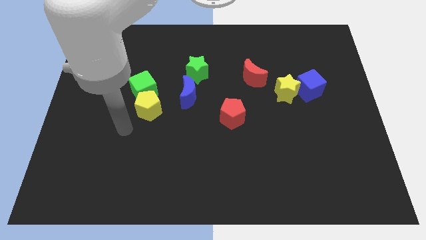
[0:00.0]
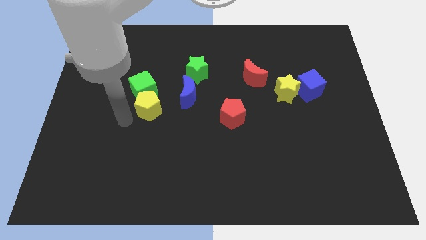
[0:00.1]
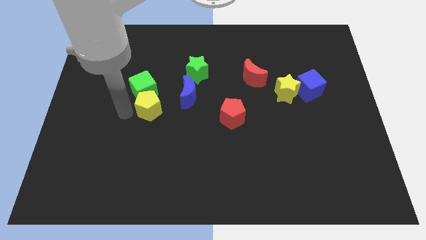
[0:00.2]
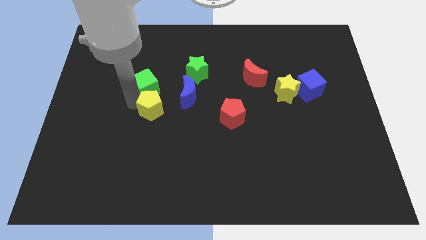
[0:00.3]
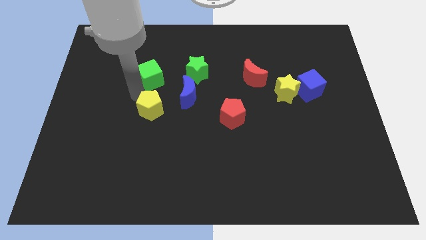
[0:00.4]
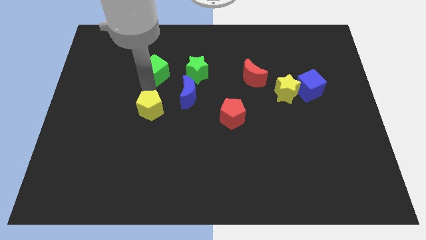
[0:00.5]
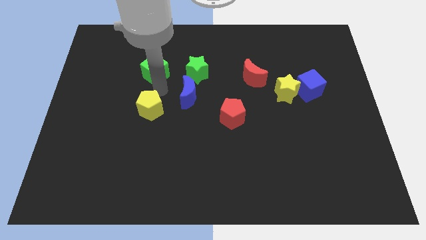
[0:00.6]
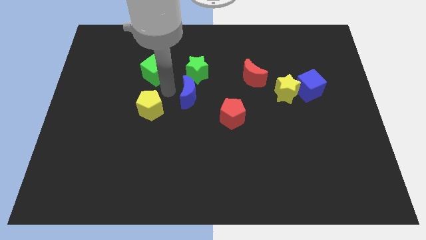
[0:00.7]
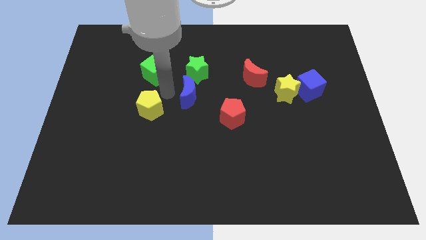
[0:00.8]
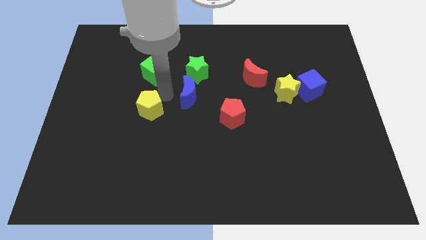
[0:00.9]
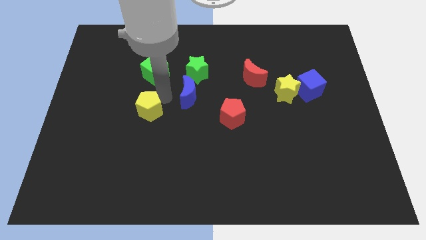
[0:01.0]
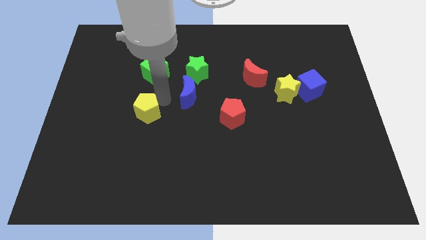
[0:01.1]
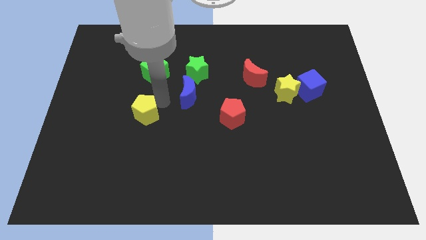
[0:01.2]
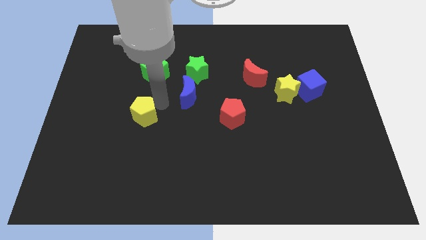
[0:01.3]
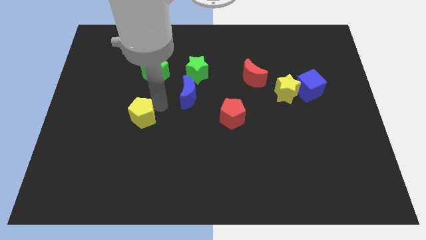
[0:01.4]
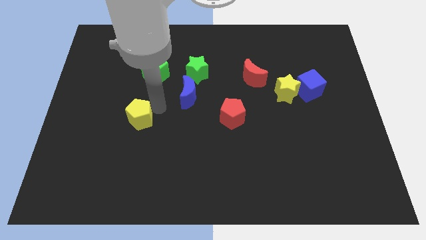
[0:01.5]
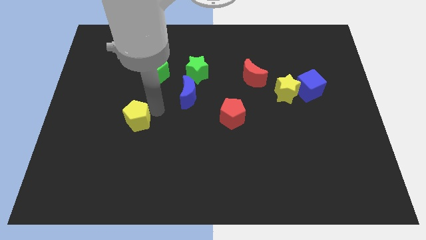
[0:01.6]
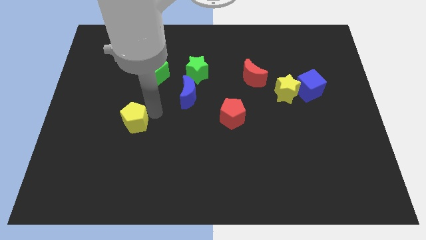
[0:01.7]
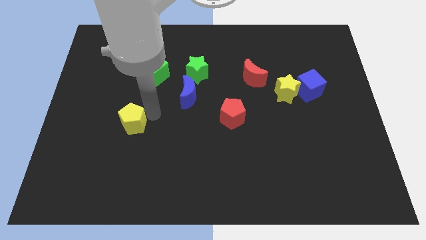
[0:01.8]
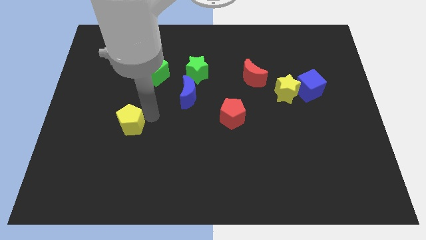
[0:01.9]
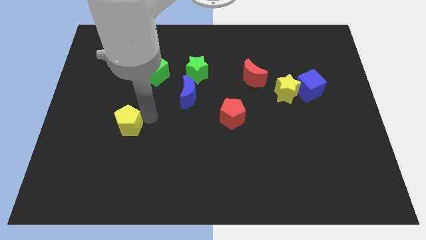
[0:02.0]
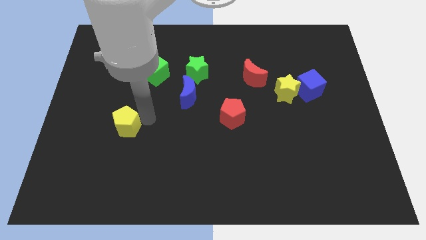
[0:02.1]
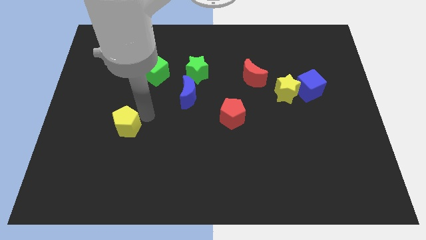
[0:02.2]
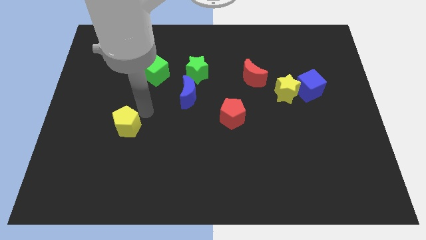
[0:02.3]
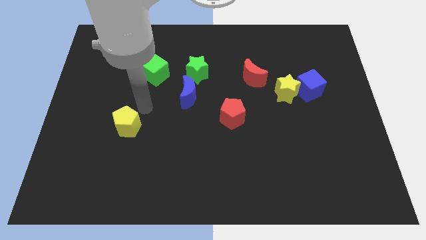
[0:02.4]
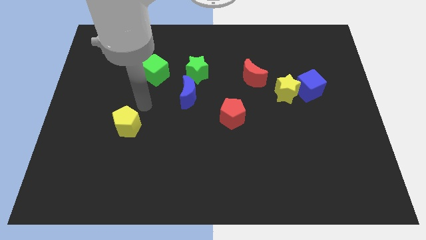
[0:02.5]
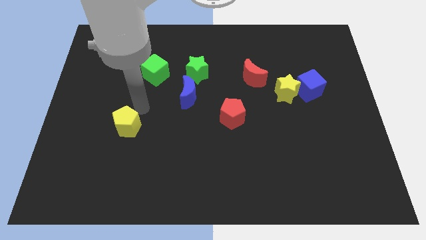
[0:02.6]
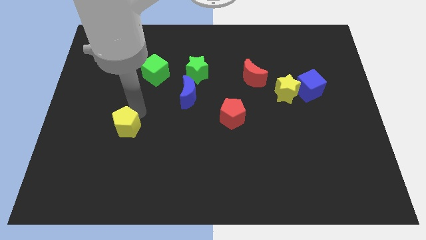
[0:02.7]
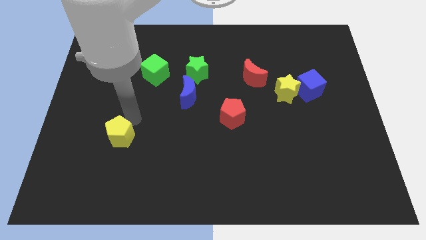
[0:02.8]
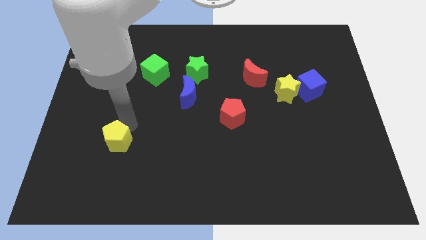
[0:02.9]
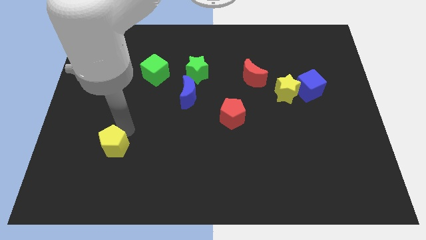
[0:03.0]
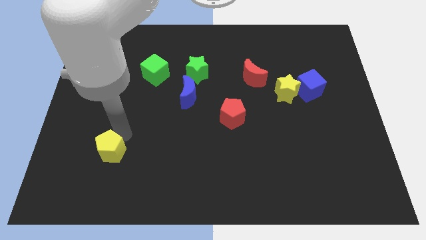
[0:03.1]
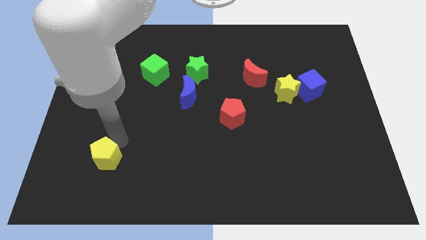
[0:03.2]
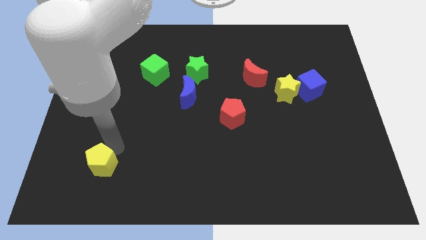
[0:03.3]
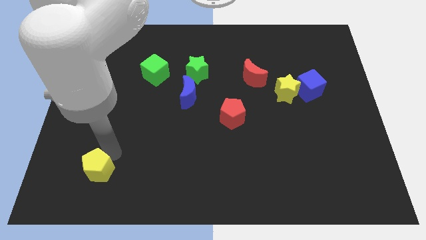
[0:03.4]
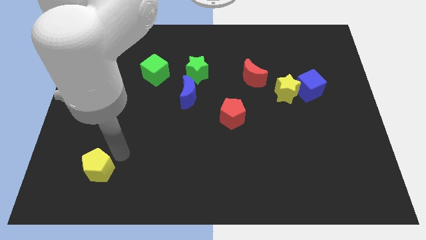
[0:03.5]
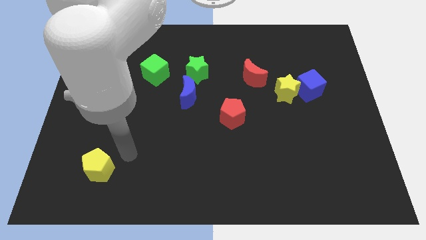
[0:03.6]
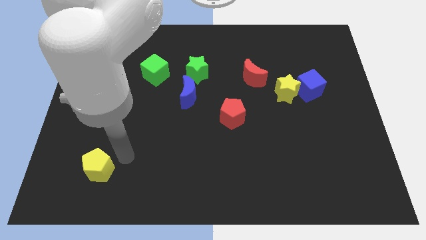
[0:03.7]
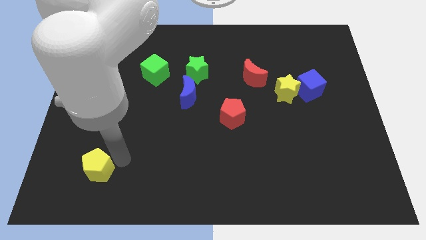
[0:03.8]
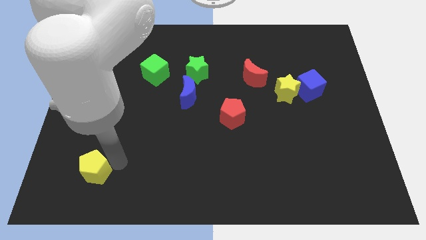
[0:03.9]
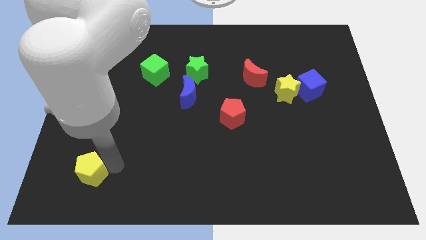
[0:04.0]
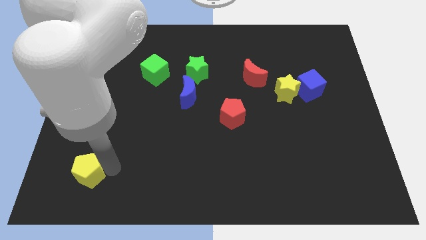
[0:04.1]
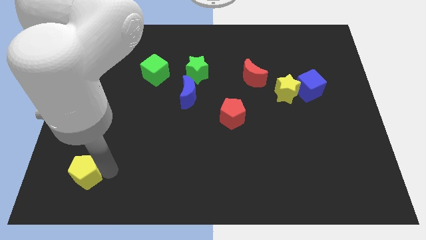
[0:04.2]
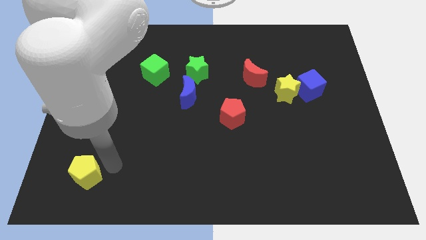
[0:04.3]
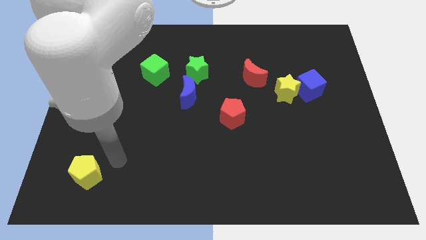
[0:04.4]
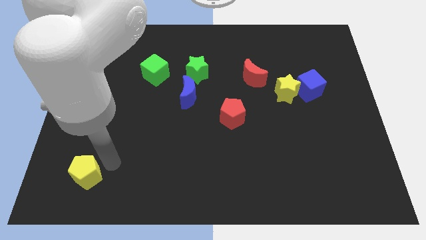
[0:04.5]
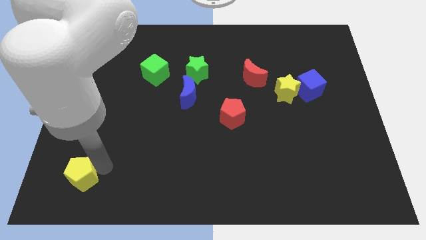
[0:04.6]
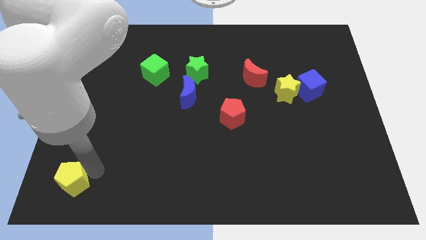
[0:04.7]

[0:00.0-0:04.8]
push the yellow pentagon to the lower left corner

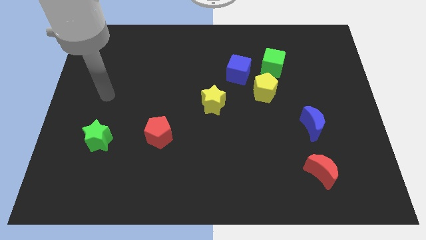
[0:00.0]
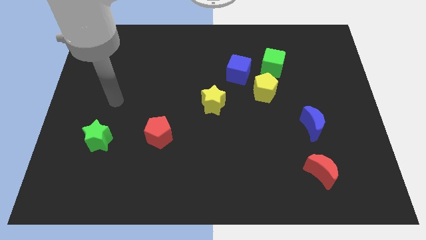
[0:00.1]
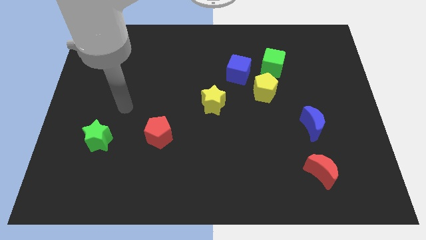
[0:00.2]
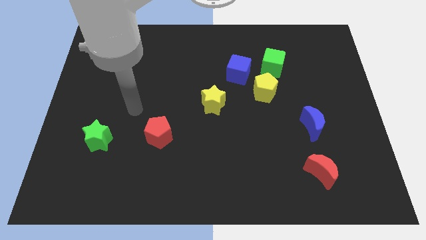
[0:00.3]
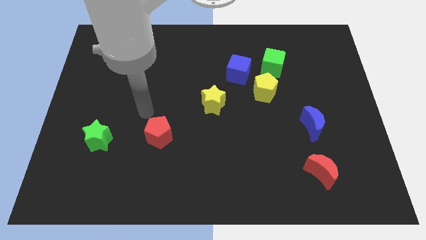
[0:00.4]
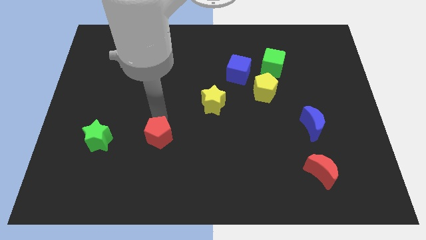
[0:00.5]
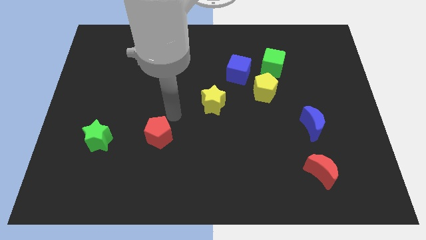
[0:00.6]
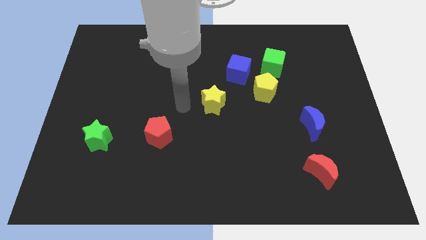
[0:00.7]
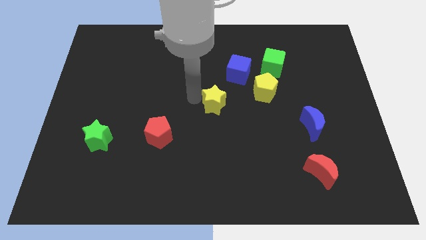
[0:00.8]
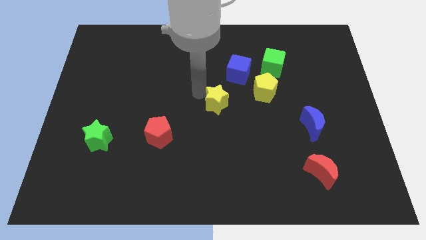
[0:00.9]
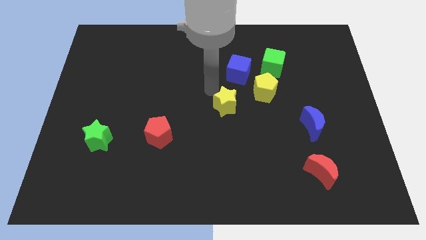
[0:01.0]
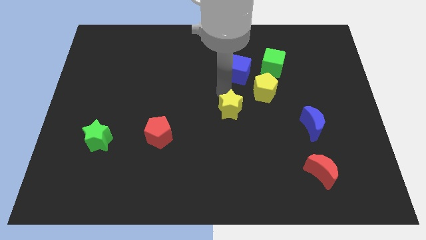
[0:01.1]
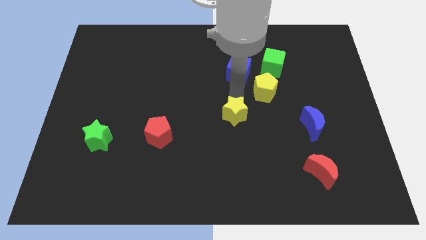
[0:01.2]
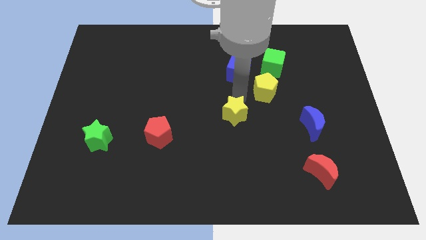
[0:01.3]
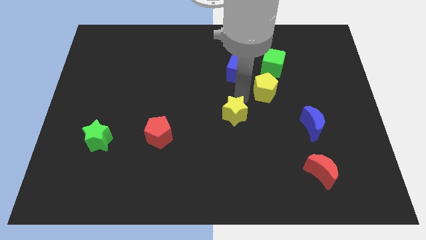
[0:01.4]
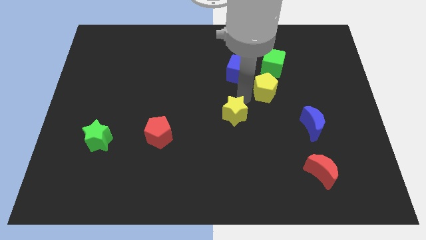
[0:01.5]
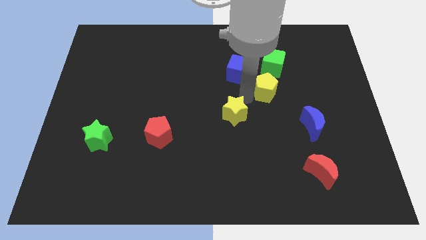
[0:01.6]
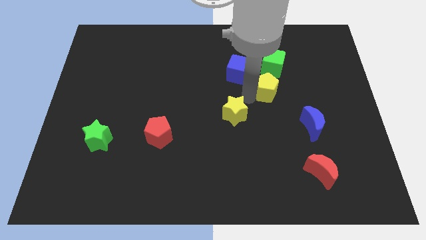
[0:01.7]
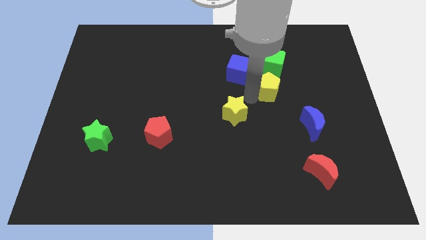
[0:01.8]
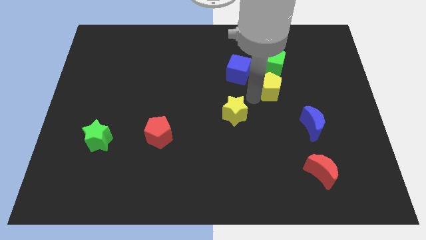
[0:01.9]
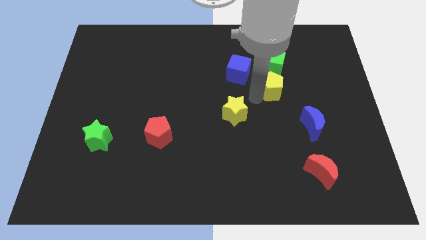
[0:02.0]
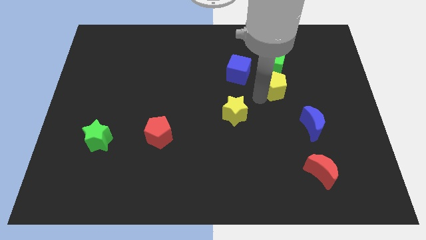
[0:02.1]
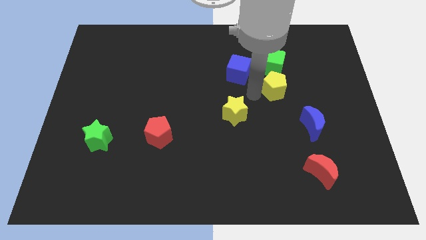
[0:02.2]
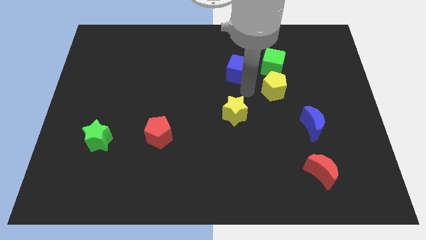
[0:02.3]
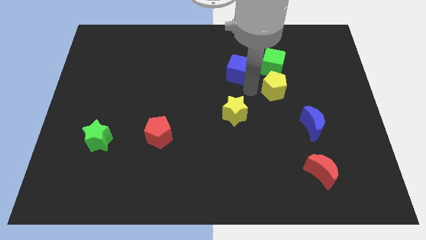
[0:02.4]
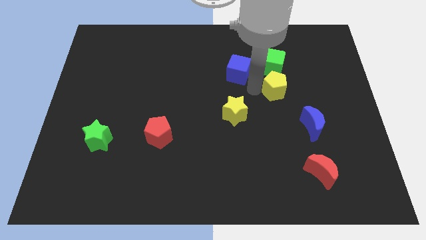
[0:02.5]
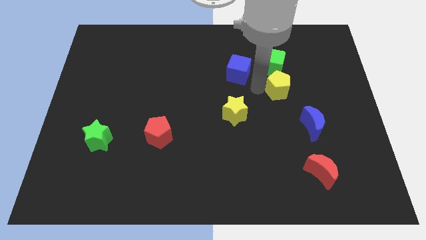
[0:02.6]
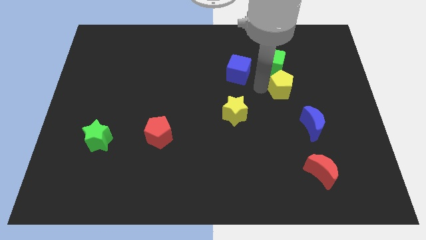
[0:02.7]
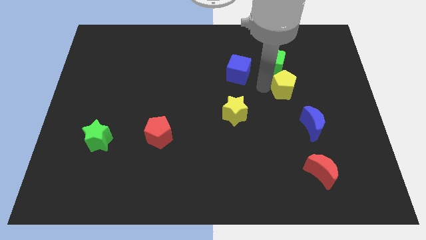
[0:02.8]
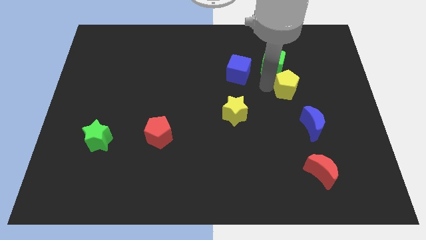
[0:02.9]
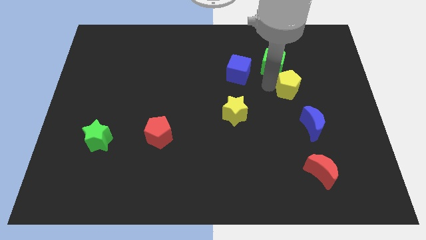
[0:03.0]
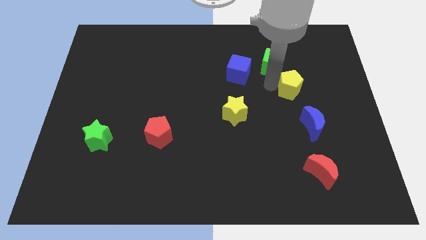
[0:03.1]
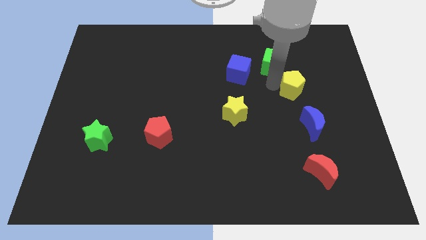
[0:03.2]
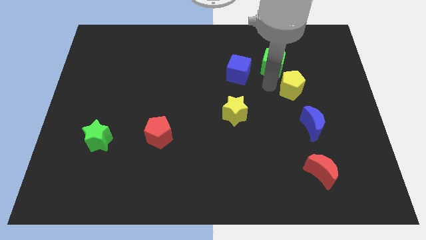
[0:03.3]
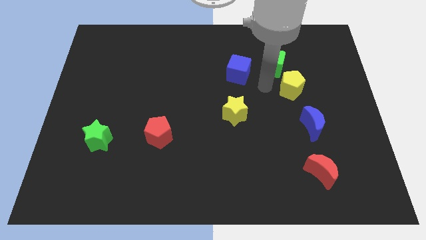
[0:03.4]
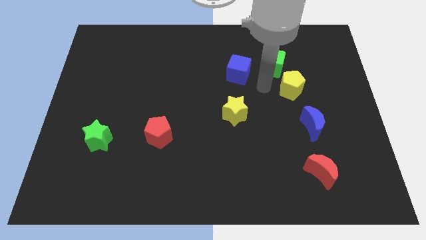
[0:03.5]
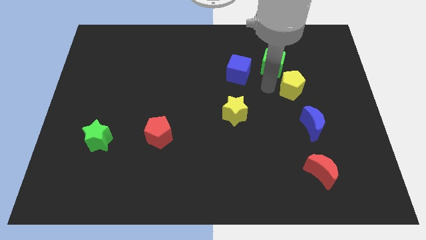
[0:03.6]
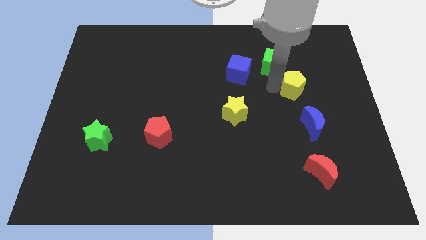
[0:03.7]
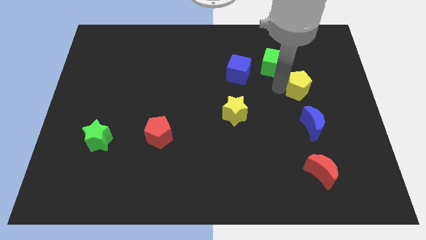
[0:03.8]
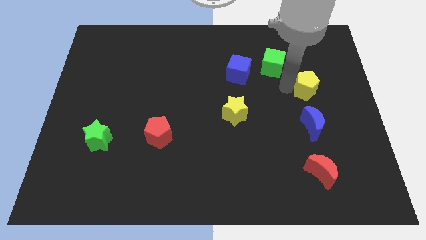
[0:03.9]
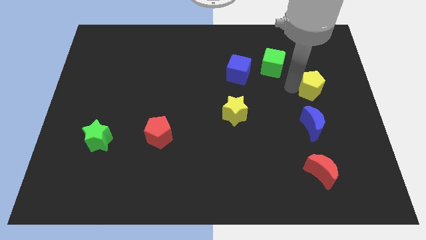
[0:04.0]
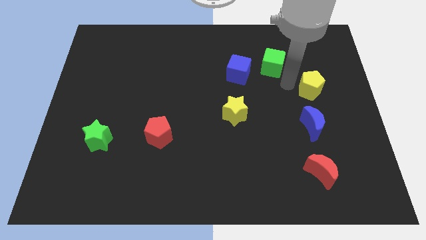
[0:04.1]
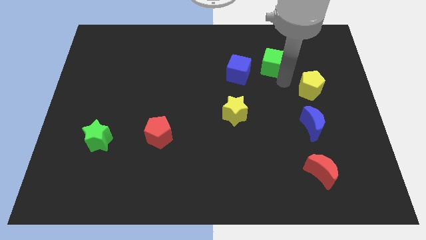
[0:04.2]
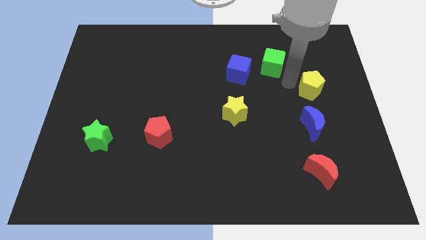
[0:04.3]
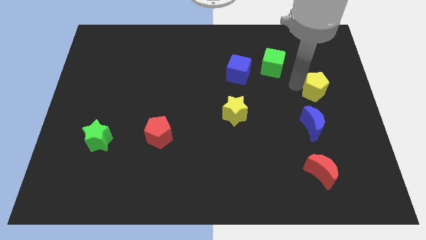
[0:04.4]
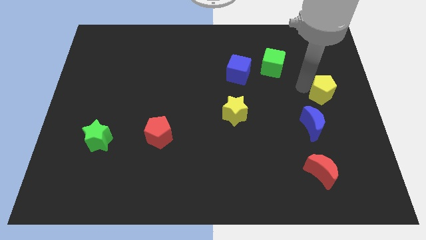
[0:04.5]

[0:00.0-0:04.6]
slide the yellow pentagon to the center right
